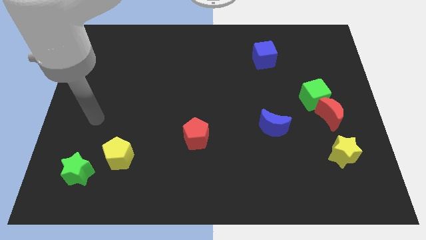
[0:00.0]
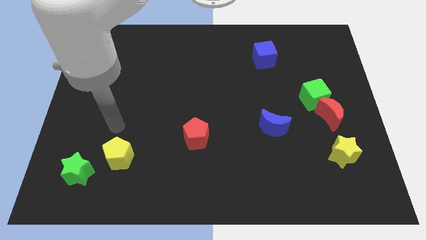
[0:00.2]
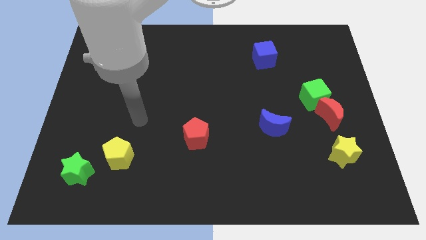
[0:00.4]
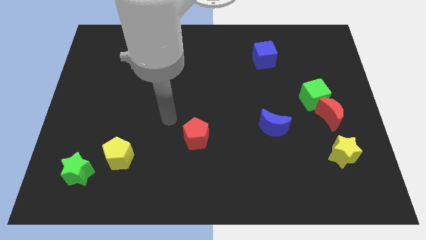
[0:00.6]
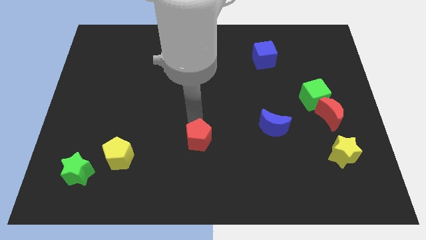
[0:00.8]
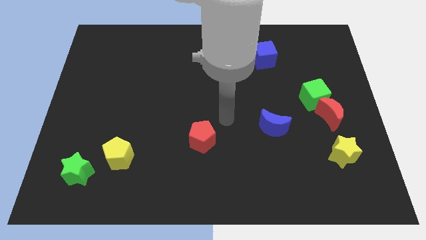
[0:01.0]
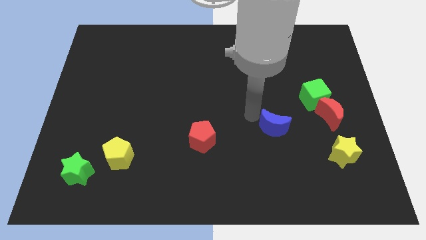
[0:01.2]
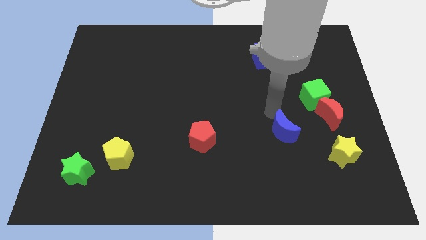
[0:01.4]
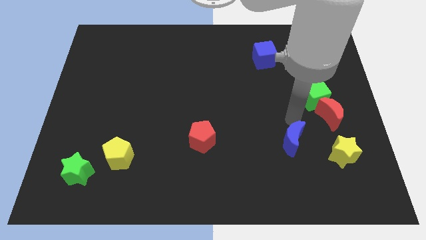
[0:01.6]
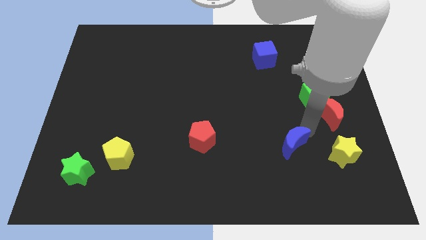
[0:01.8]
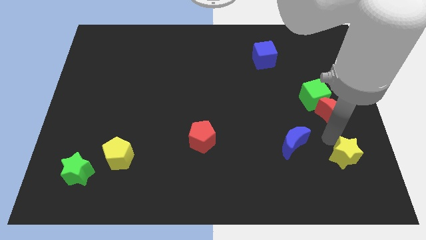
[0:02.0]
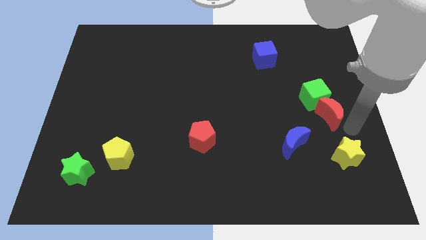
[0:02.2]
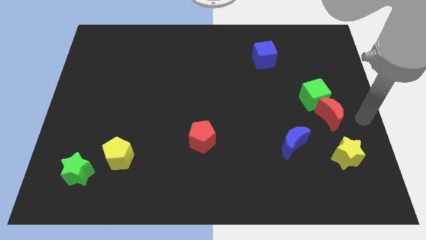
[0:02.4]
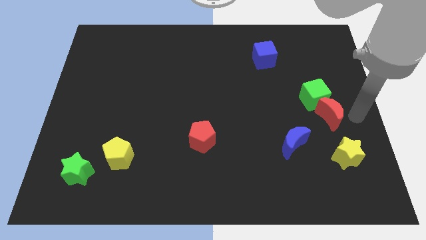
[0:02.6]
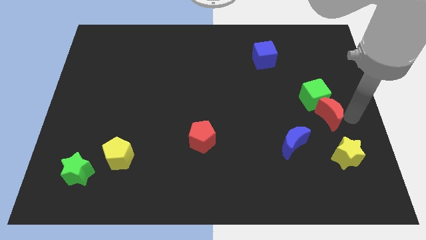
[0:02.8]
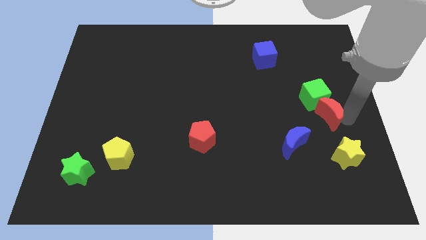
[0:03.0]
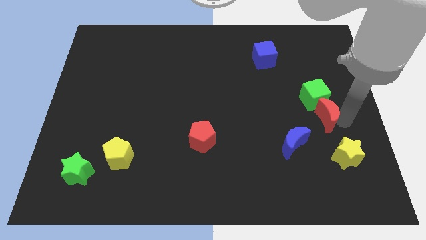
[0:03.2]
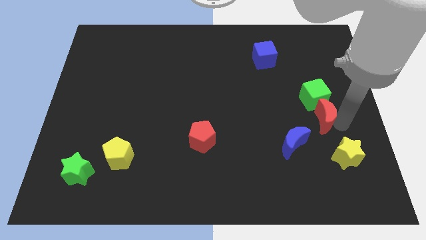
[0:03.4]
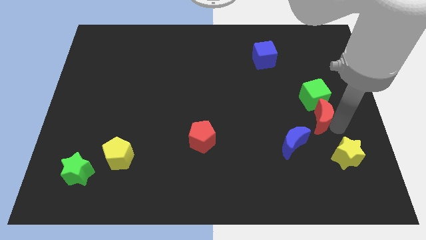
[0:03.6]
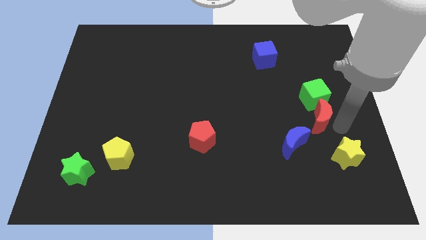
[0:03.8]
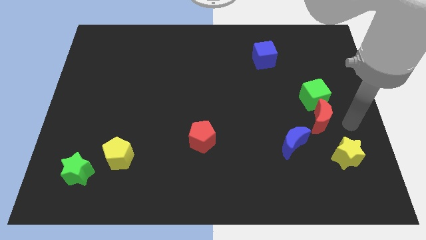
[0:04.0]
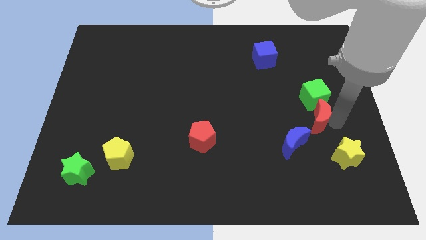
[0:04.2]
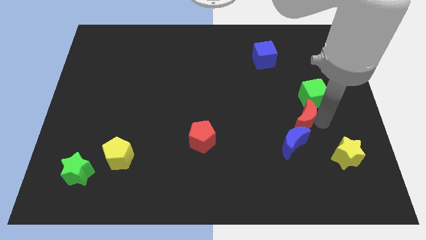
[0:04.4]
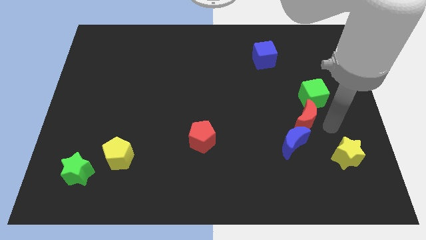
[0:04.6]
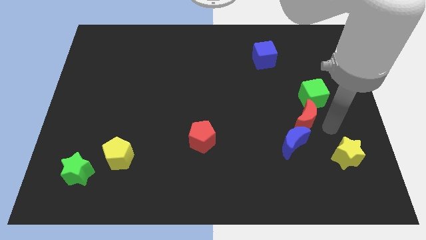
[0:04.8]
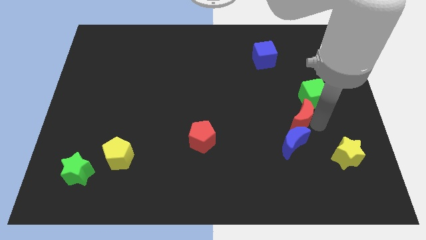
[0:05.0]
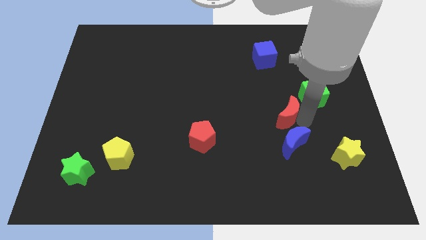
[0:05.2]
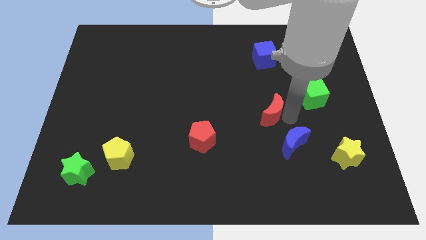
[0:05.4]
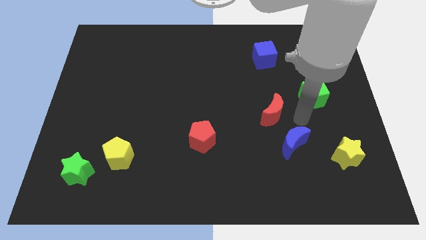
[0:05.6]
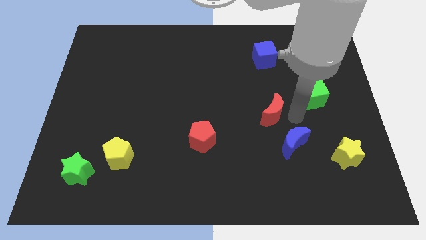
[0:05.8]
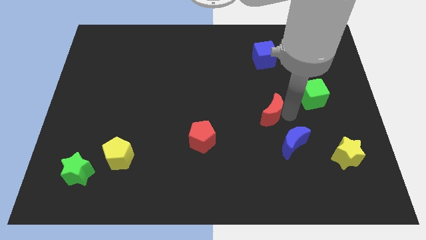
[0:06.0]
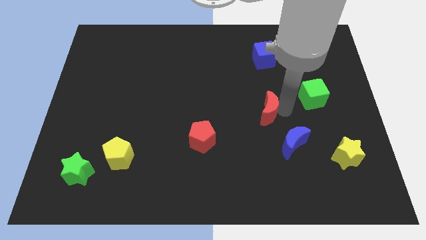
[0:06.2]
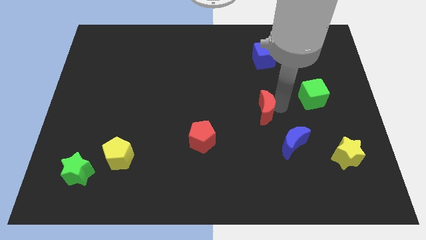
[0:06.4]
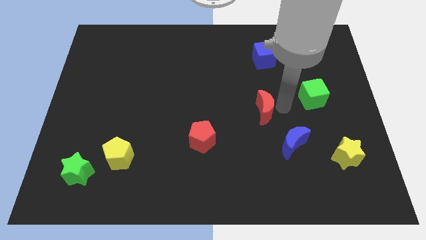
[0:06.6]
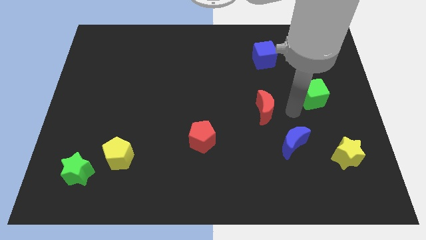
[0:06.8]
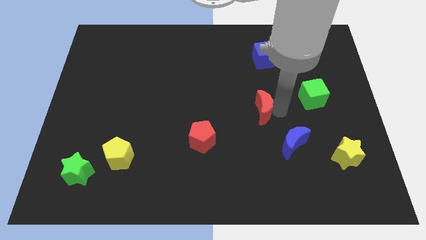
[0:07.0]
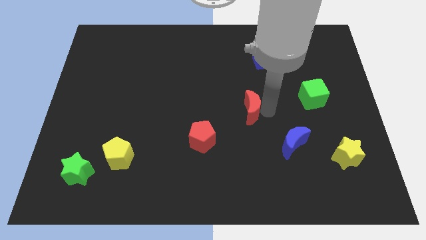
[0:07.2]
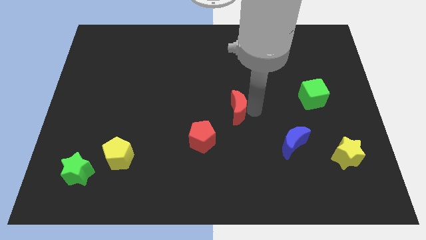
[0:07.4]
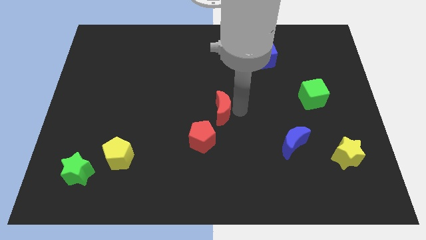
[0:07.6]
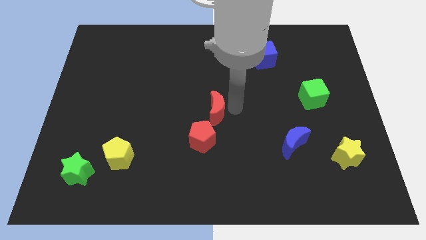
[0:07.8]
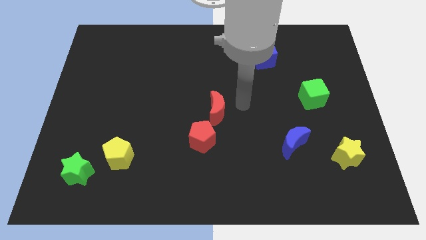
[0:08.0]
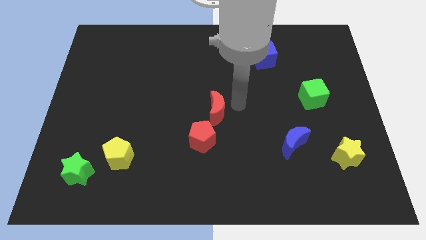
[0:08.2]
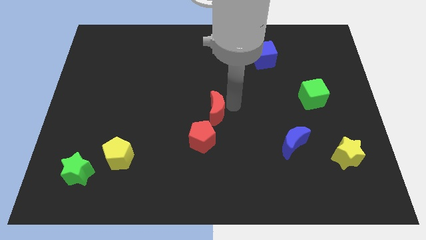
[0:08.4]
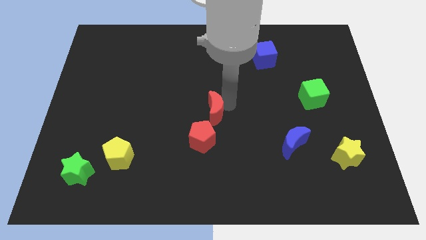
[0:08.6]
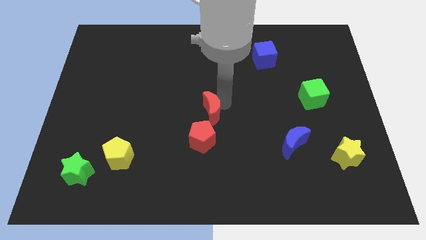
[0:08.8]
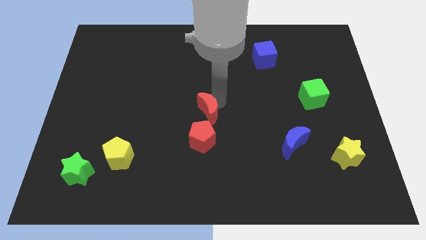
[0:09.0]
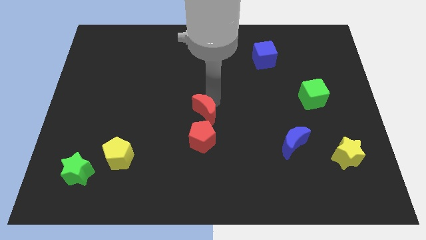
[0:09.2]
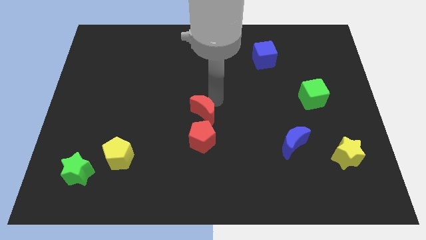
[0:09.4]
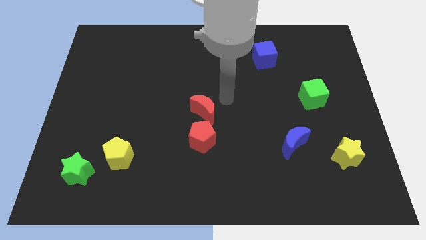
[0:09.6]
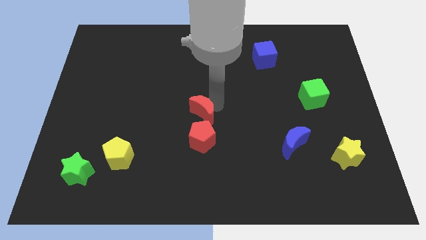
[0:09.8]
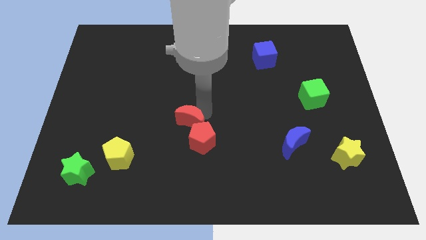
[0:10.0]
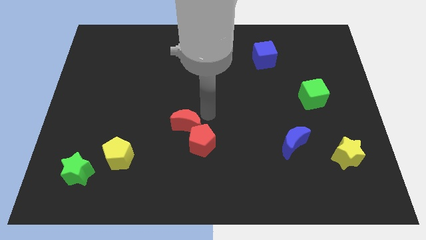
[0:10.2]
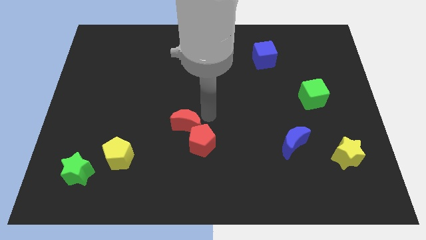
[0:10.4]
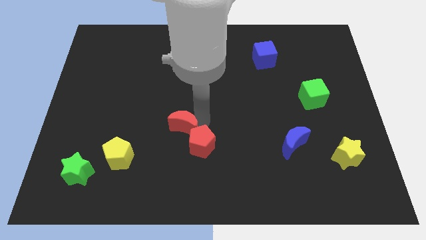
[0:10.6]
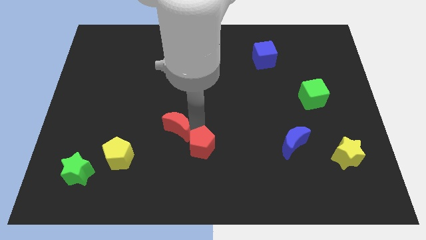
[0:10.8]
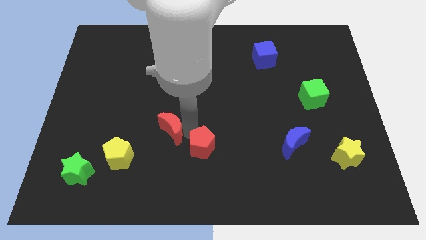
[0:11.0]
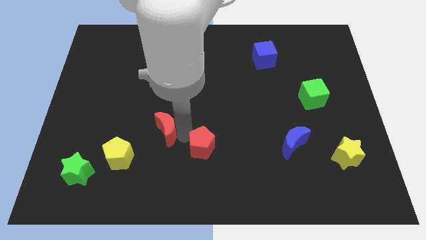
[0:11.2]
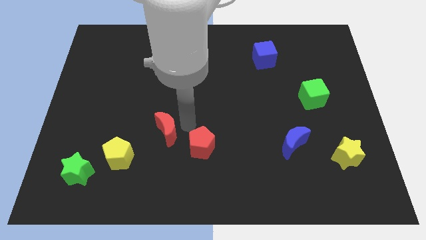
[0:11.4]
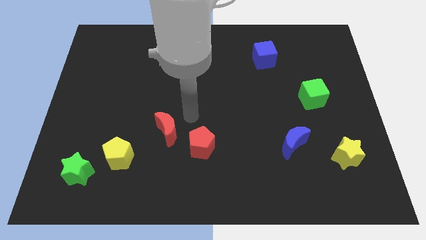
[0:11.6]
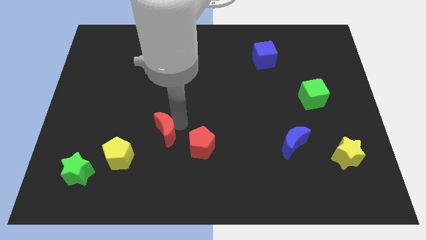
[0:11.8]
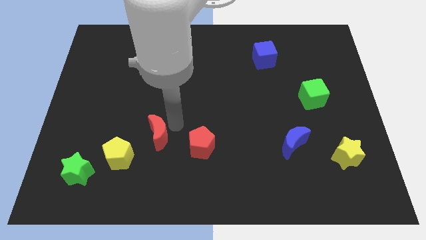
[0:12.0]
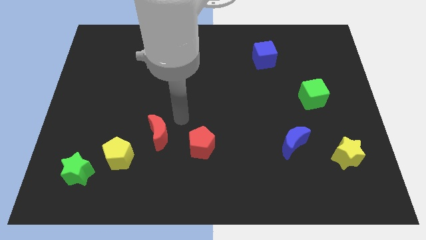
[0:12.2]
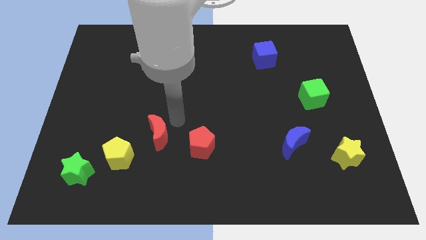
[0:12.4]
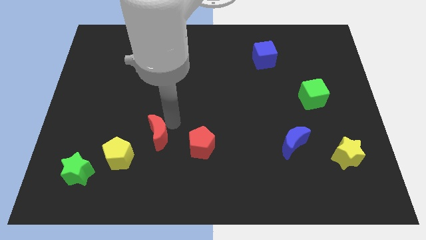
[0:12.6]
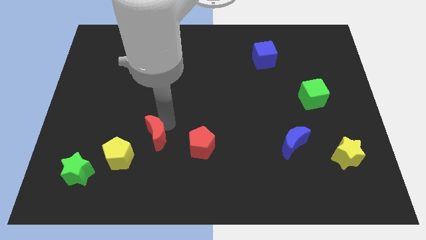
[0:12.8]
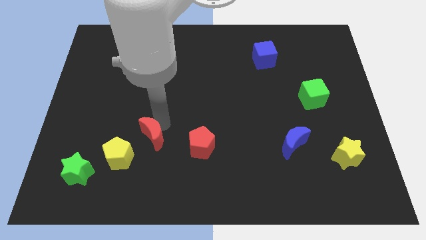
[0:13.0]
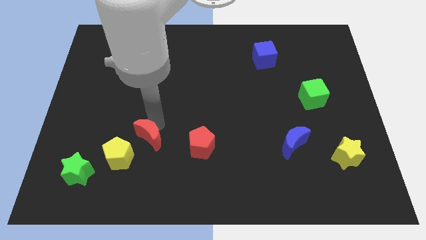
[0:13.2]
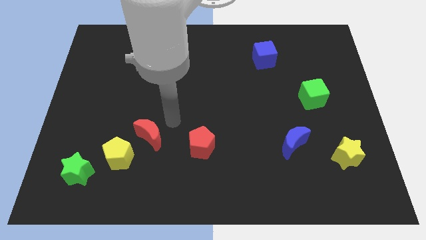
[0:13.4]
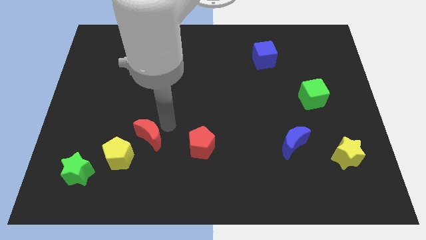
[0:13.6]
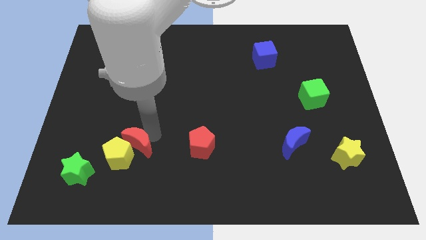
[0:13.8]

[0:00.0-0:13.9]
move the red moon next to the yellow pentagon

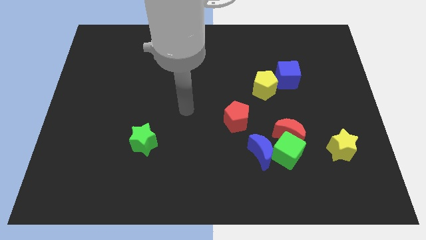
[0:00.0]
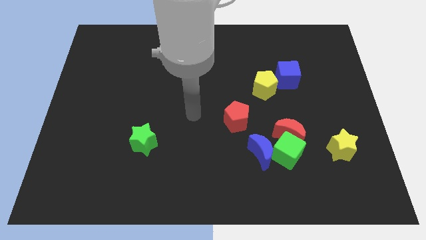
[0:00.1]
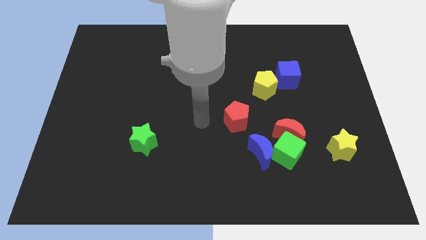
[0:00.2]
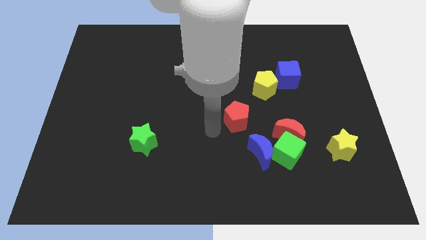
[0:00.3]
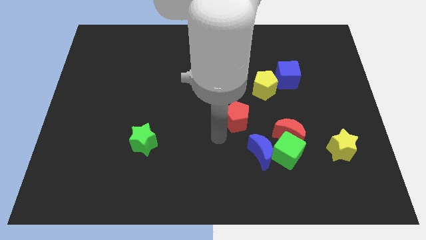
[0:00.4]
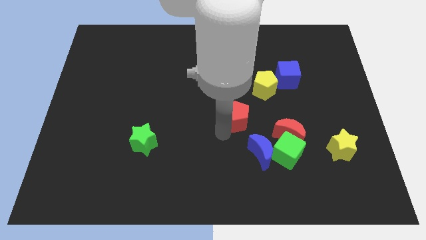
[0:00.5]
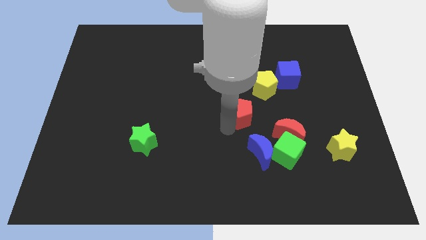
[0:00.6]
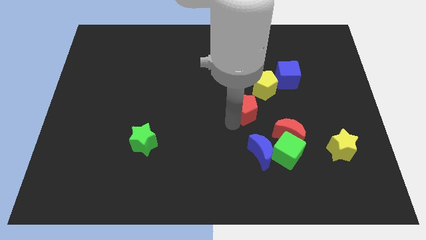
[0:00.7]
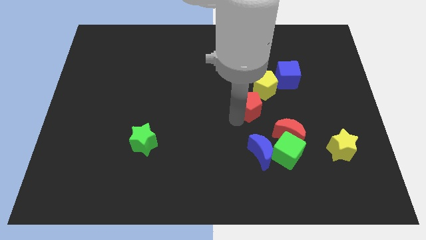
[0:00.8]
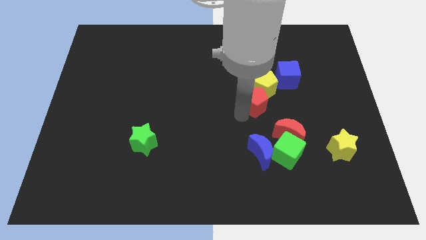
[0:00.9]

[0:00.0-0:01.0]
push the red pentagon close to the yellow pentagon
